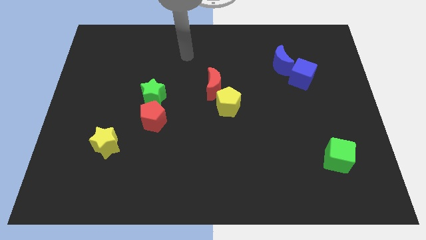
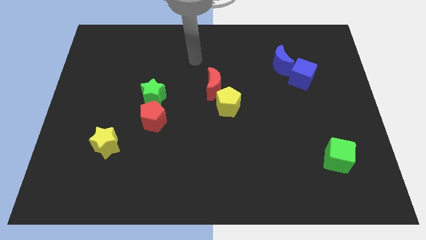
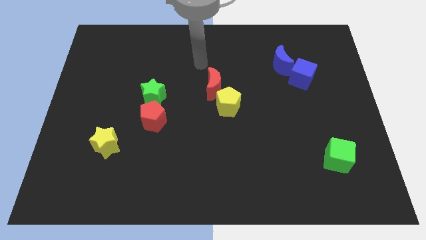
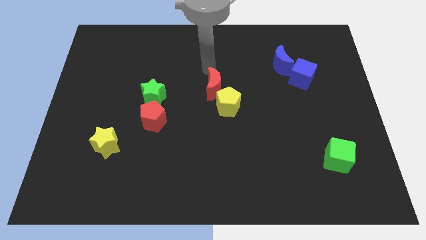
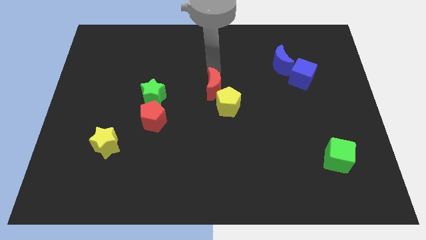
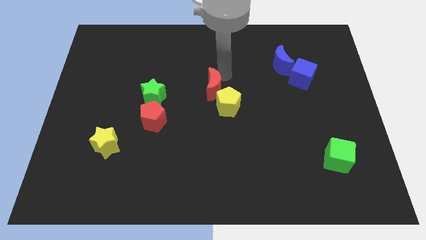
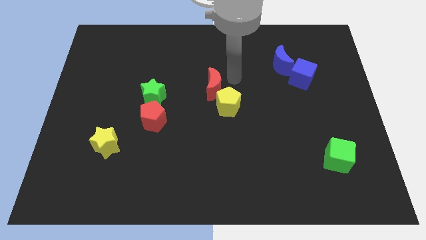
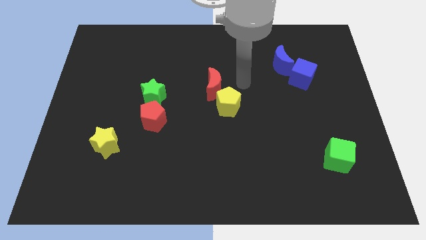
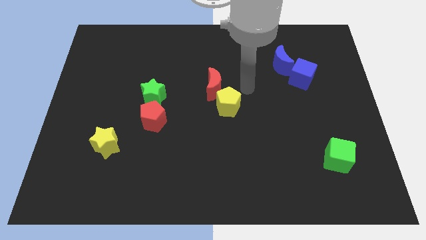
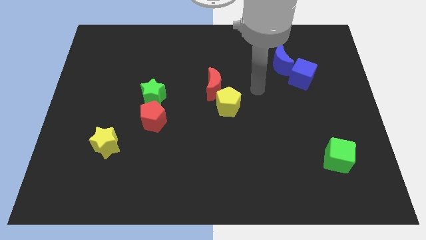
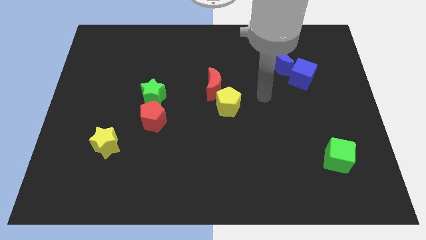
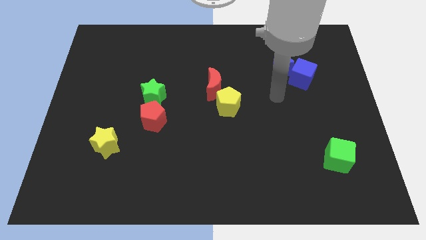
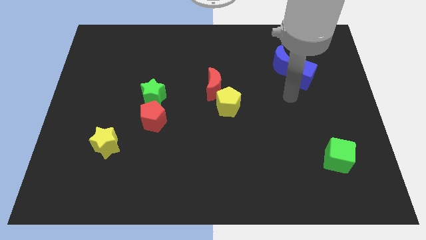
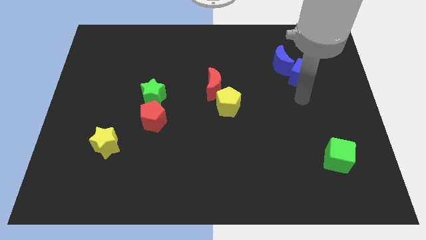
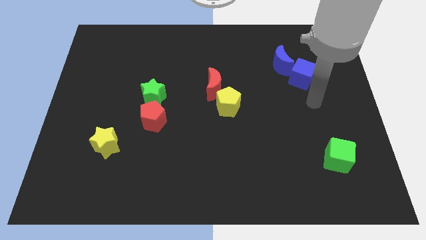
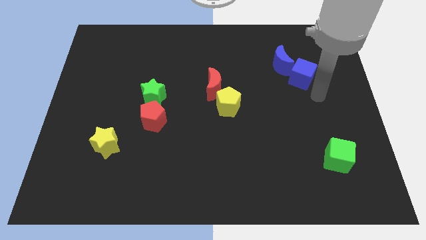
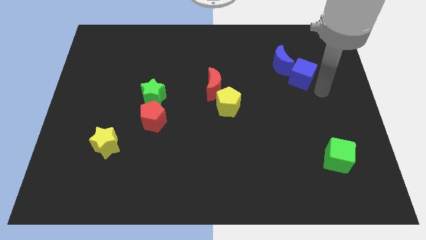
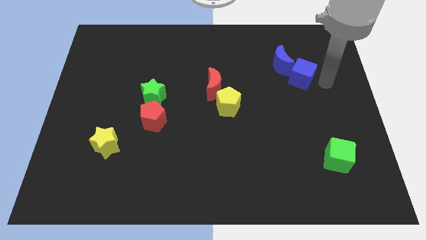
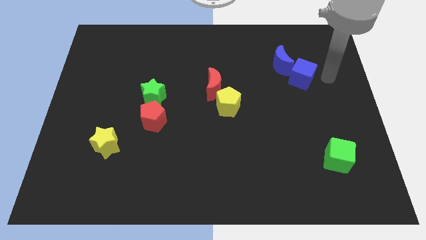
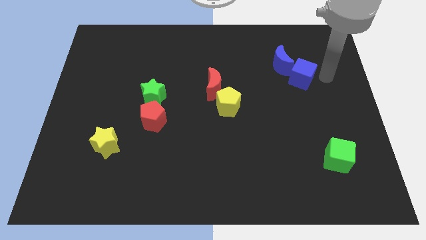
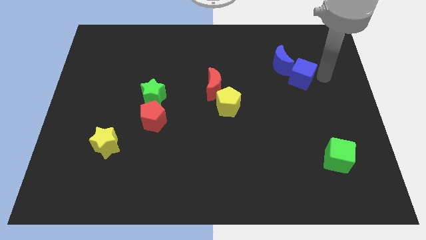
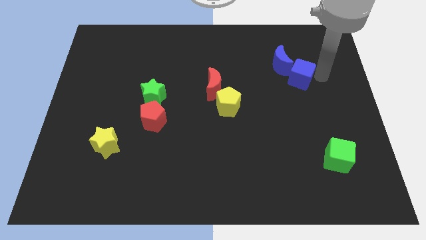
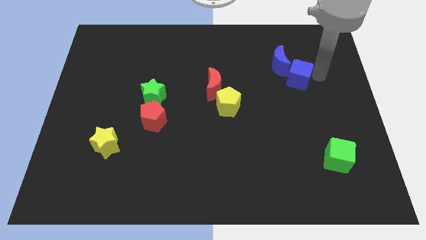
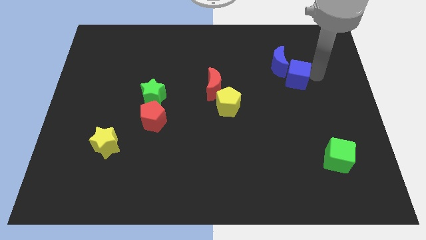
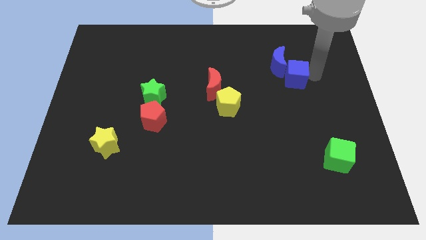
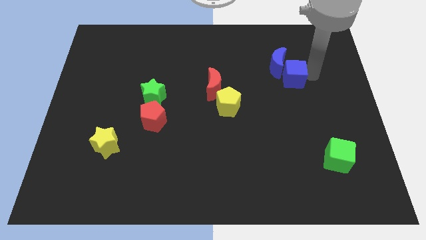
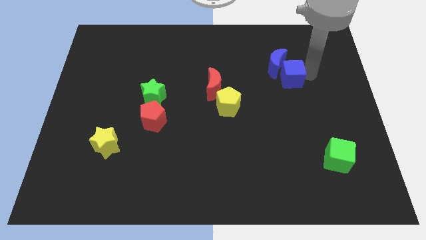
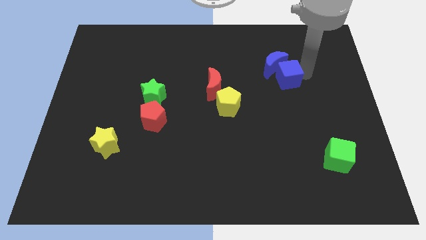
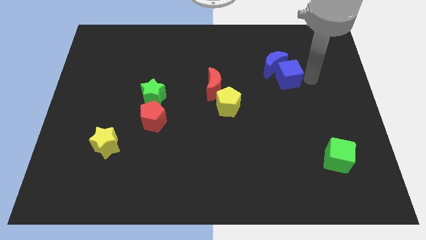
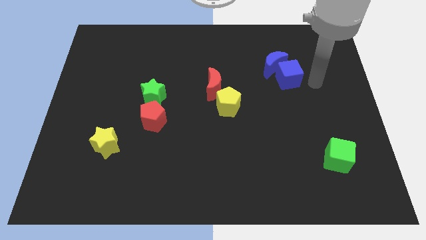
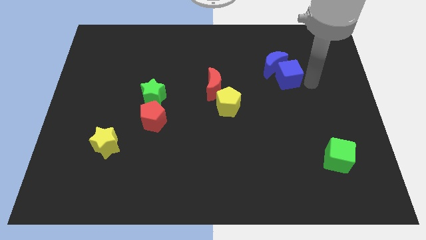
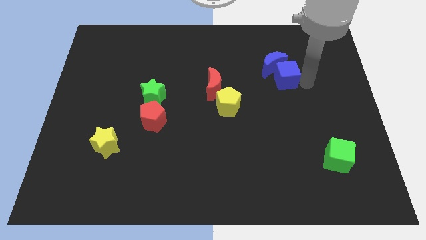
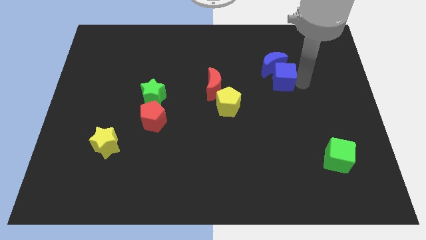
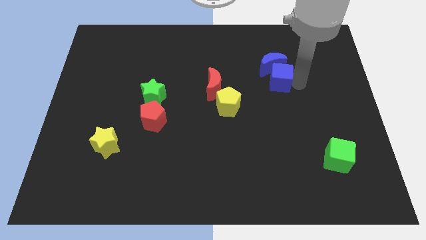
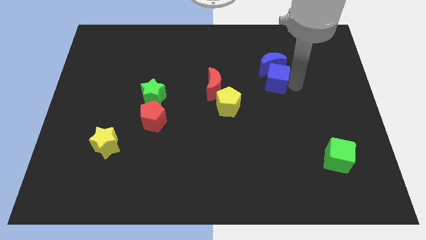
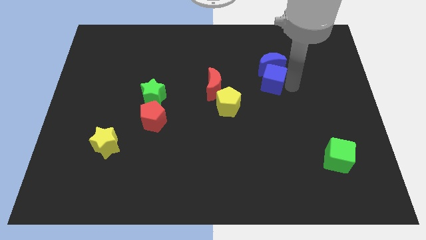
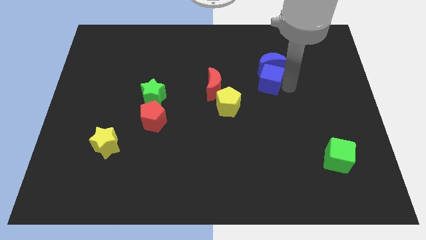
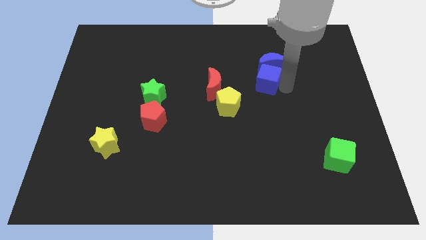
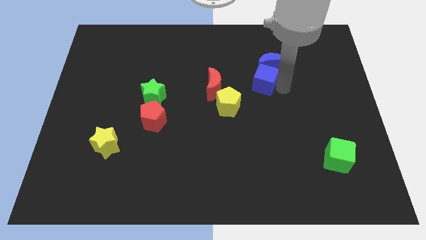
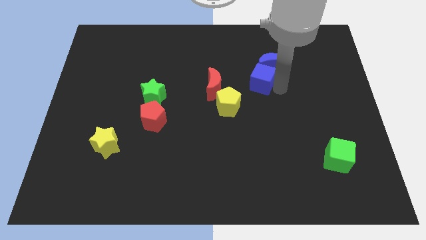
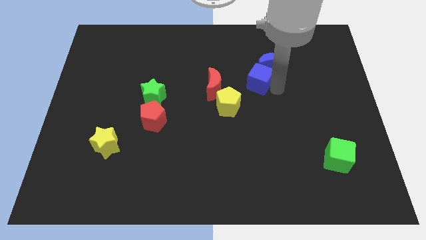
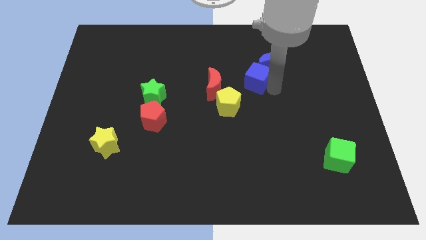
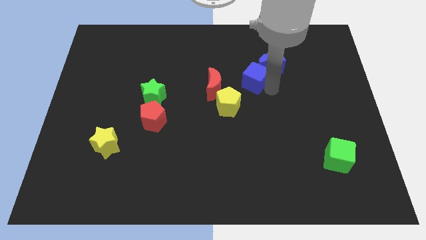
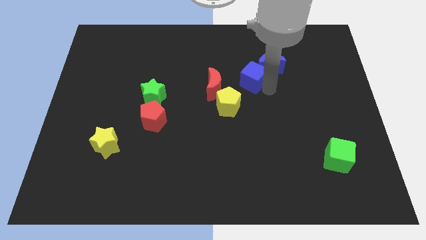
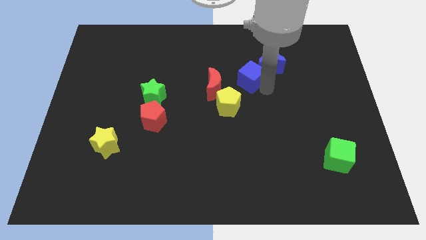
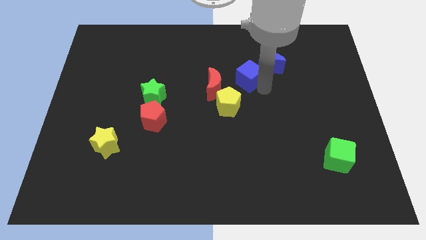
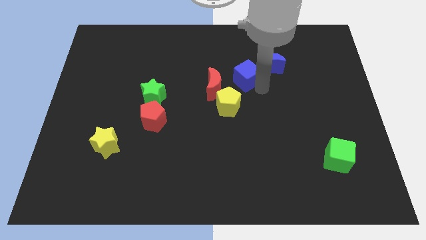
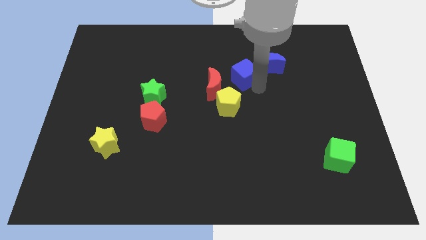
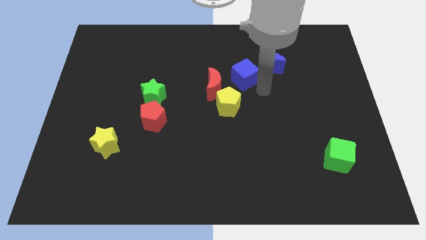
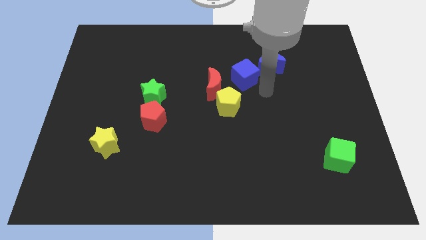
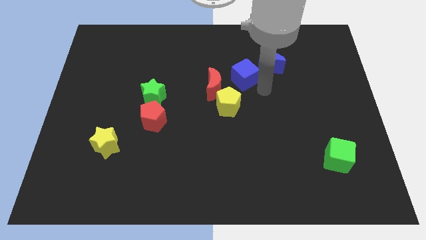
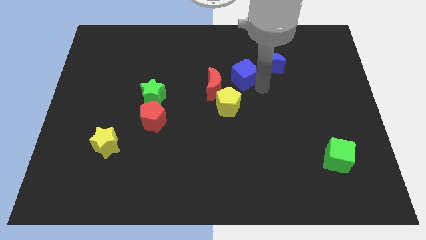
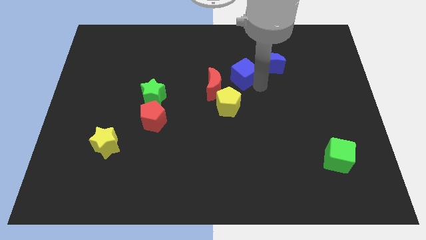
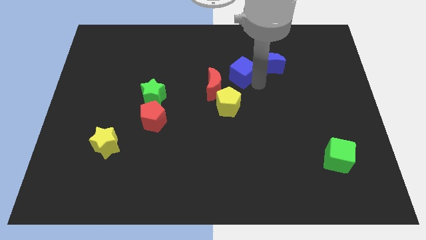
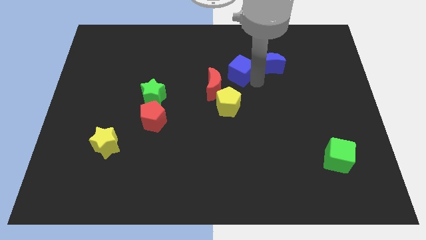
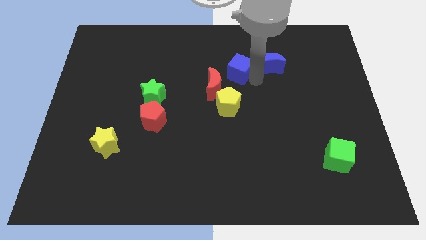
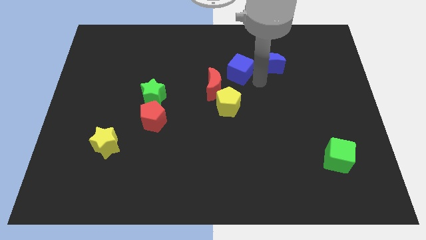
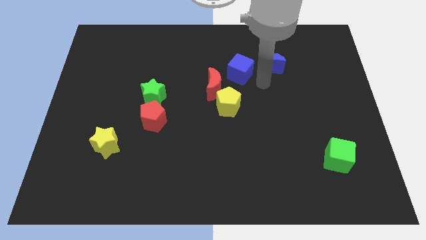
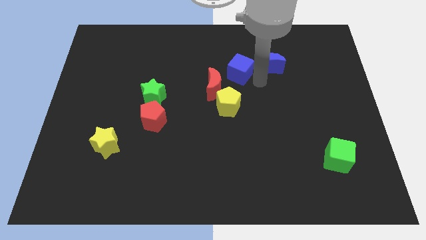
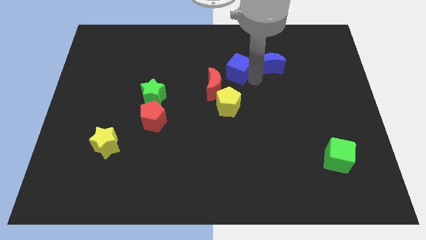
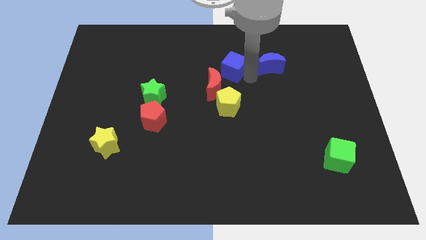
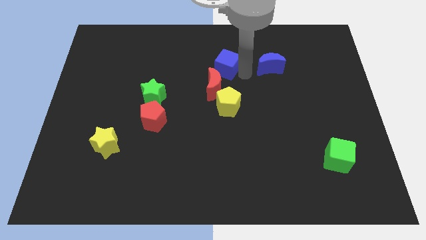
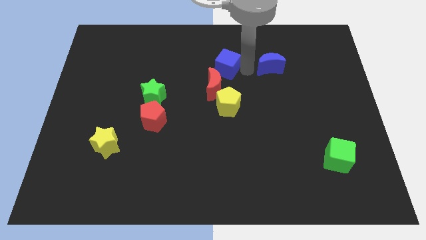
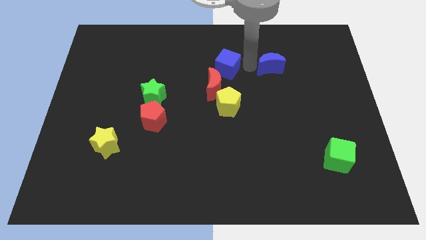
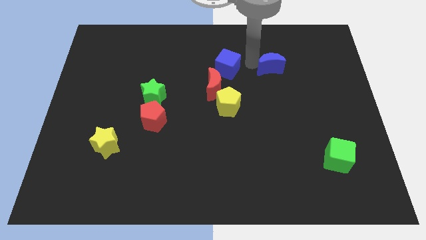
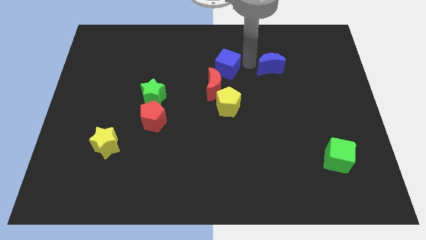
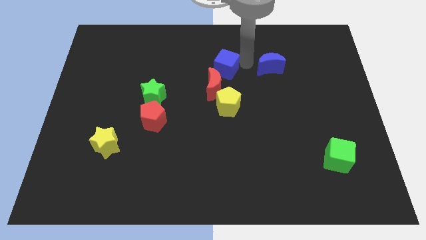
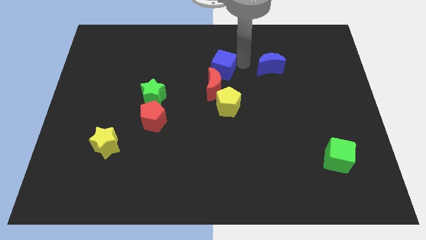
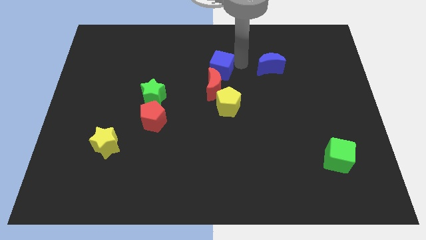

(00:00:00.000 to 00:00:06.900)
slide the blue cube left
